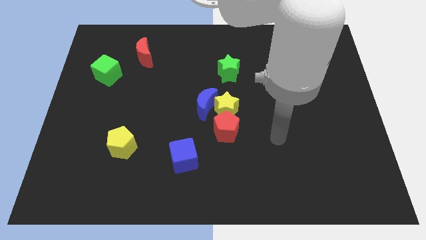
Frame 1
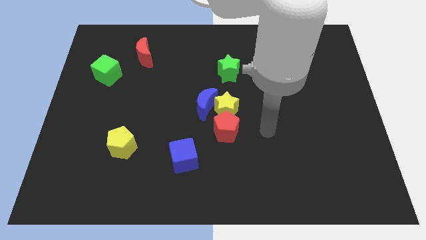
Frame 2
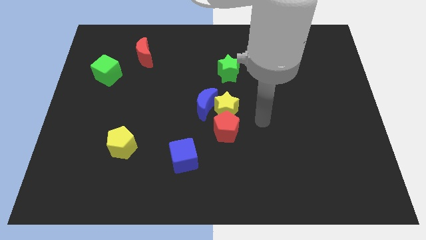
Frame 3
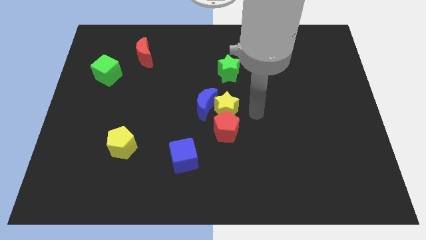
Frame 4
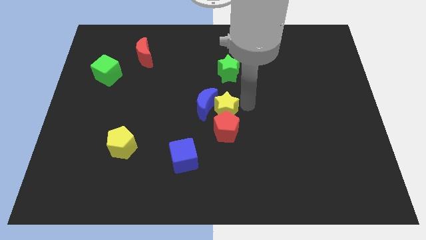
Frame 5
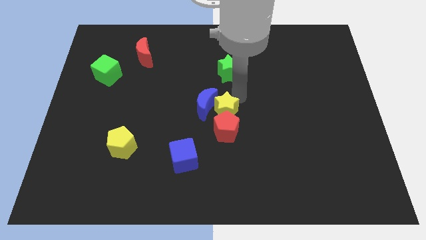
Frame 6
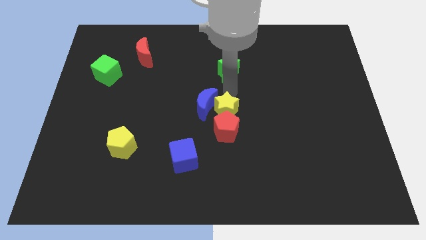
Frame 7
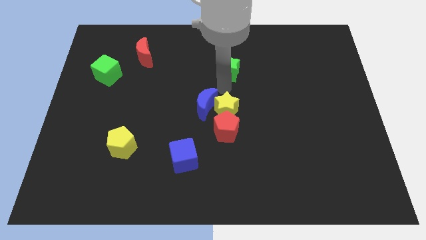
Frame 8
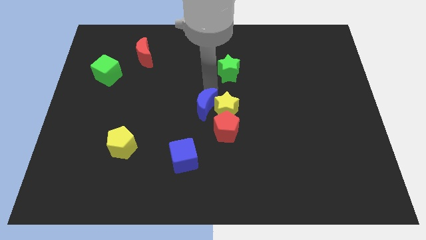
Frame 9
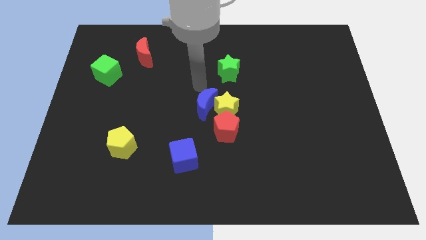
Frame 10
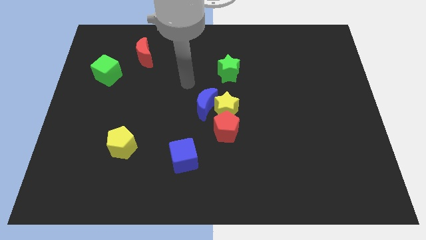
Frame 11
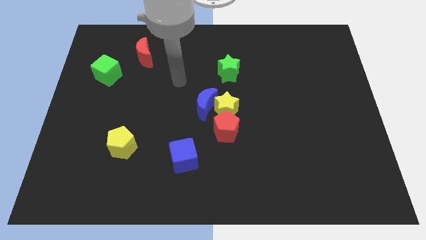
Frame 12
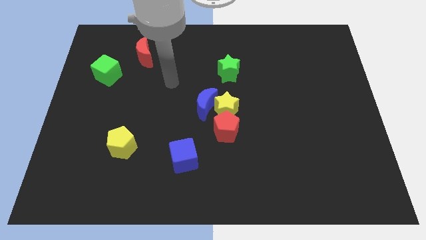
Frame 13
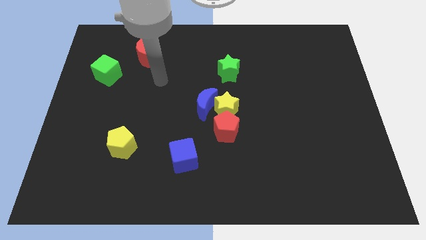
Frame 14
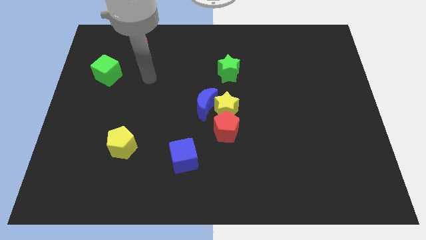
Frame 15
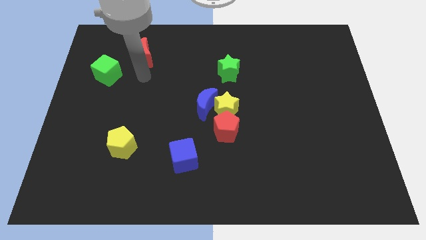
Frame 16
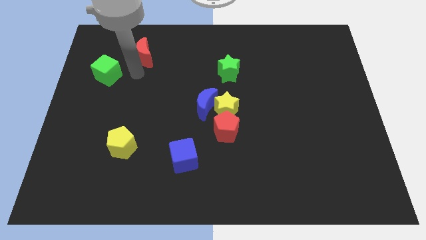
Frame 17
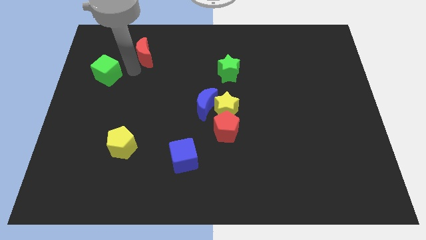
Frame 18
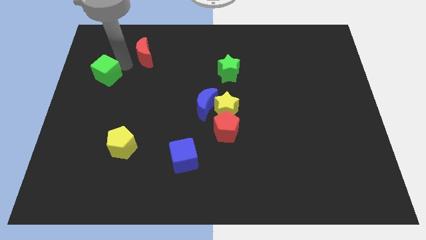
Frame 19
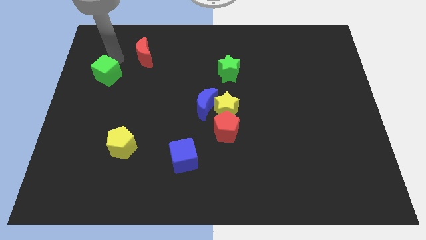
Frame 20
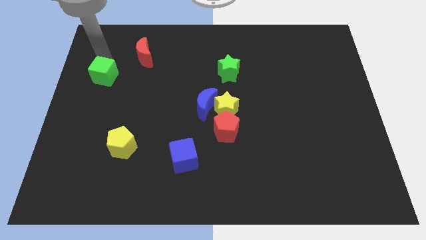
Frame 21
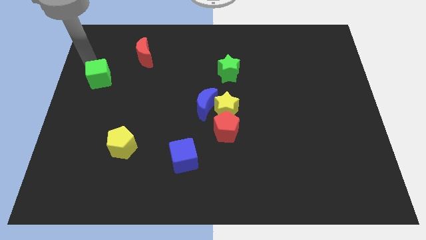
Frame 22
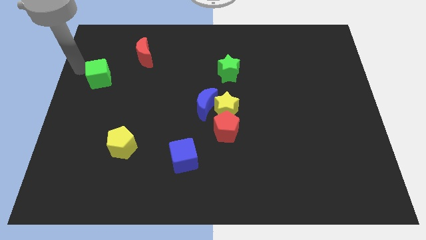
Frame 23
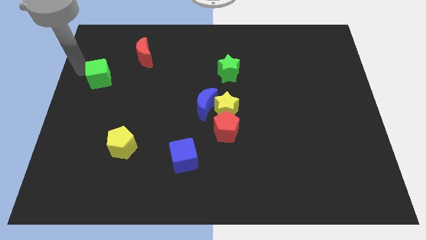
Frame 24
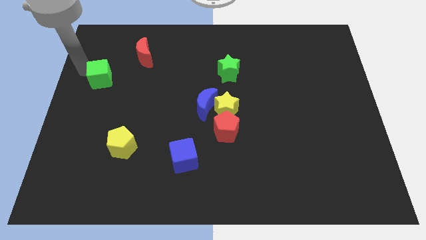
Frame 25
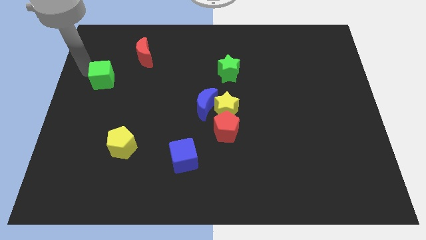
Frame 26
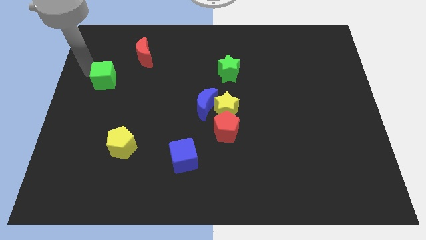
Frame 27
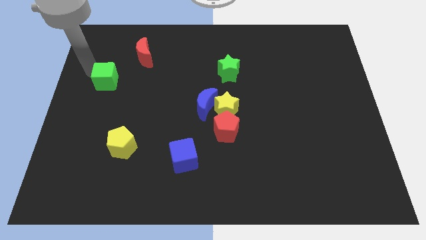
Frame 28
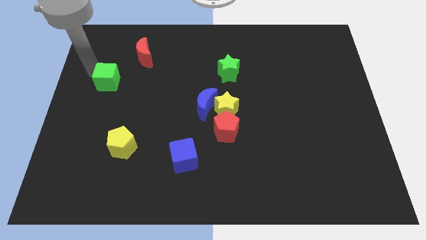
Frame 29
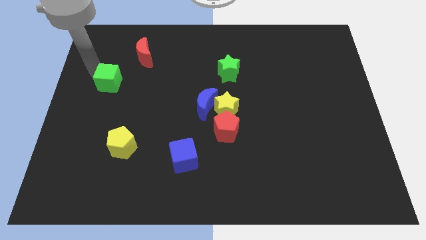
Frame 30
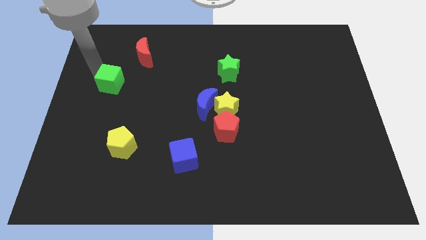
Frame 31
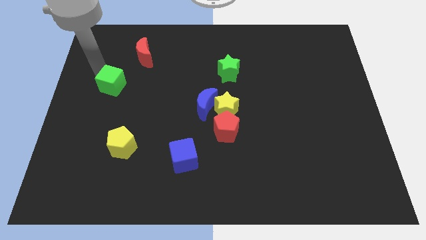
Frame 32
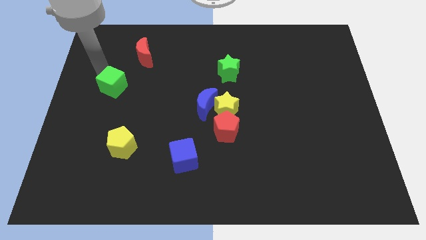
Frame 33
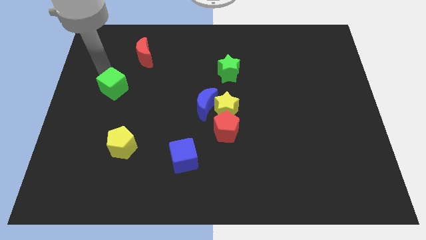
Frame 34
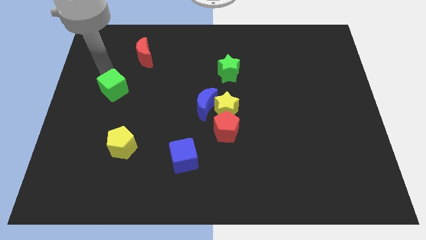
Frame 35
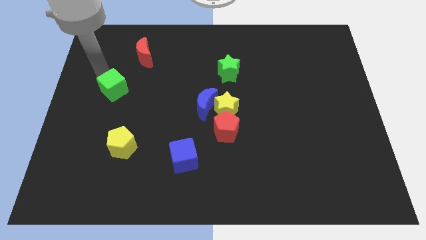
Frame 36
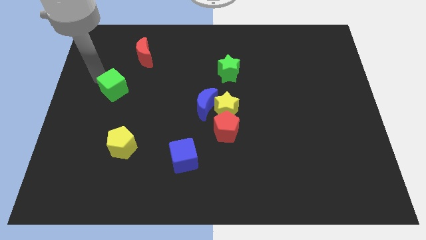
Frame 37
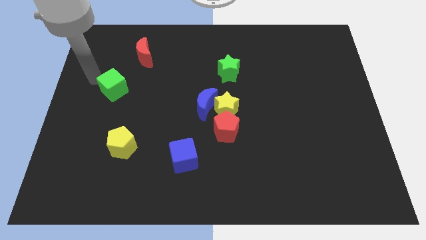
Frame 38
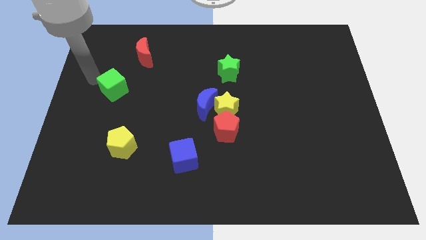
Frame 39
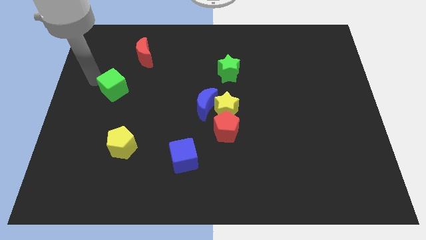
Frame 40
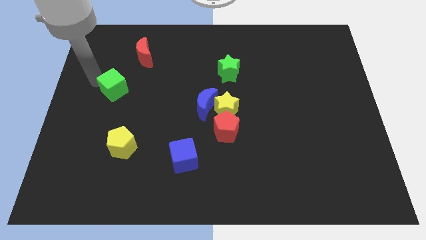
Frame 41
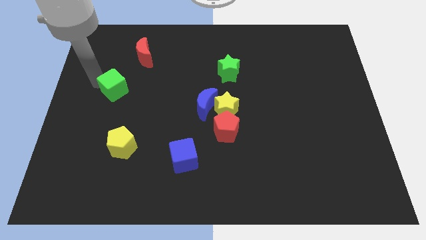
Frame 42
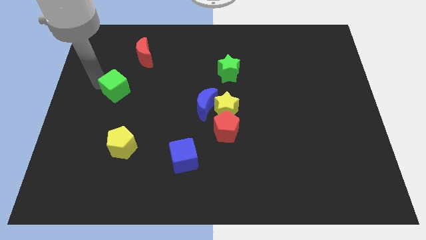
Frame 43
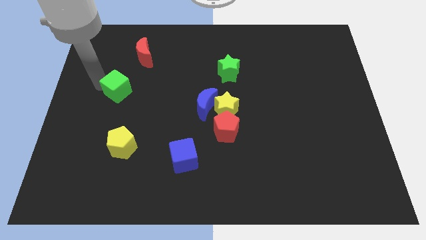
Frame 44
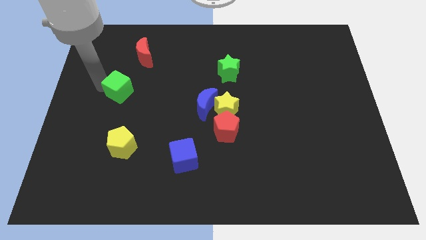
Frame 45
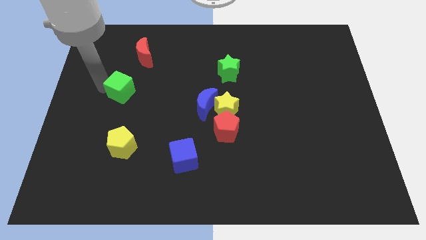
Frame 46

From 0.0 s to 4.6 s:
move the green cube diagonally down and right a little

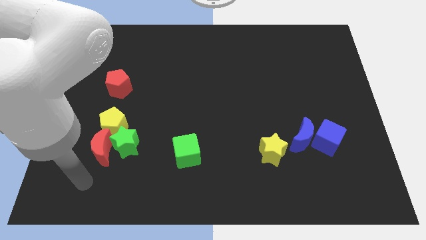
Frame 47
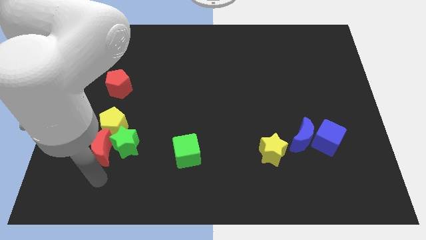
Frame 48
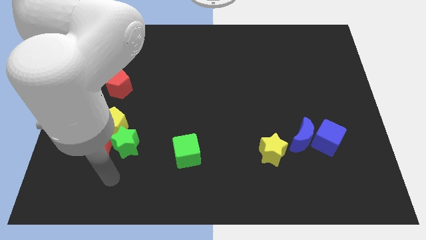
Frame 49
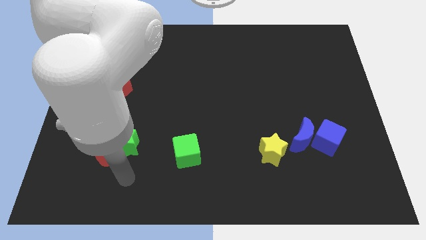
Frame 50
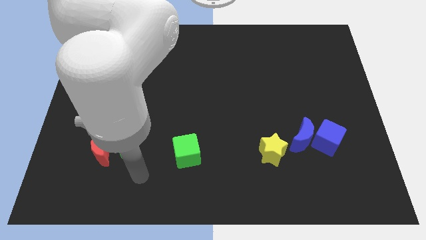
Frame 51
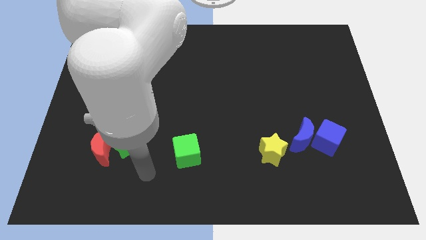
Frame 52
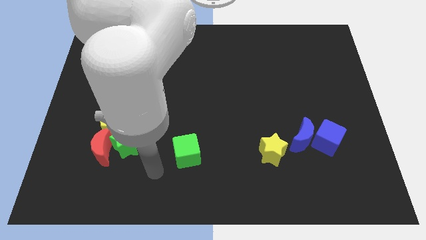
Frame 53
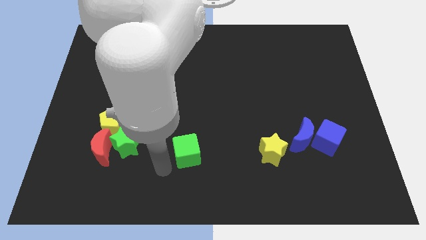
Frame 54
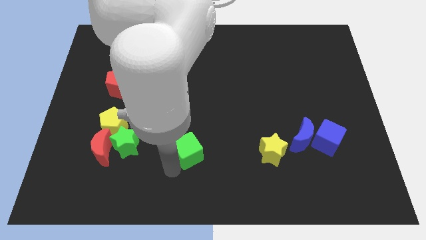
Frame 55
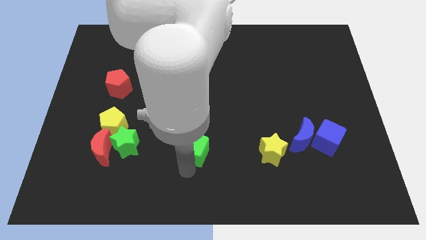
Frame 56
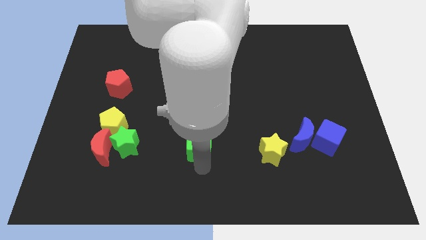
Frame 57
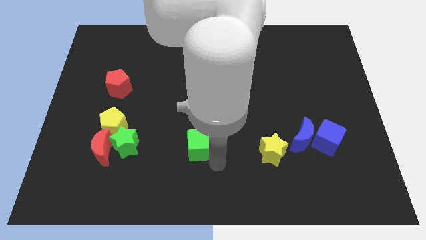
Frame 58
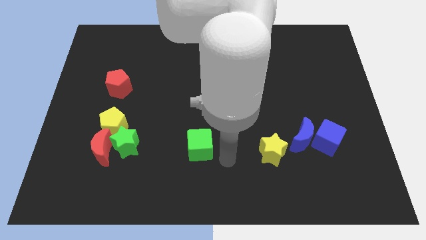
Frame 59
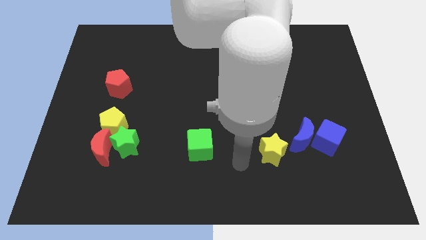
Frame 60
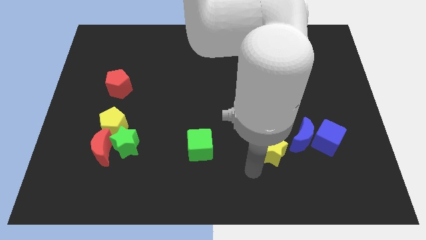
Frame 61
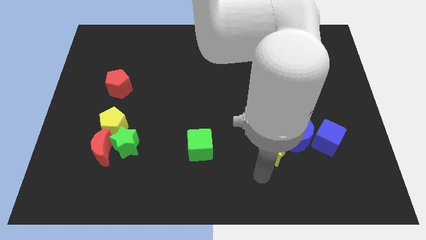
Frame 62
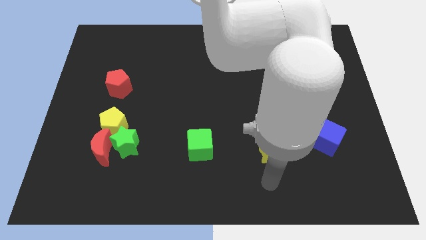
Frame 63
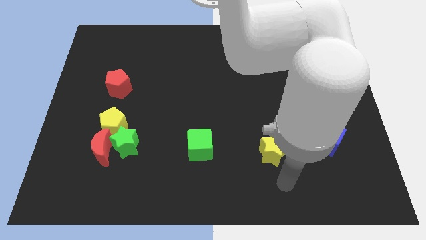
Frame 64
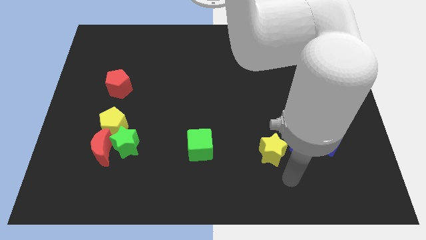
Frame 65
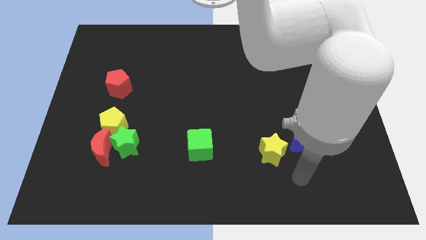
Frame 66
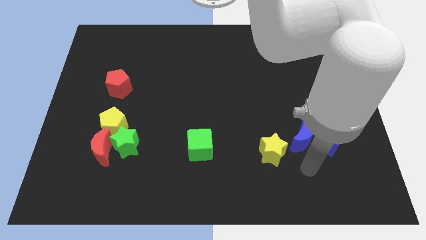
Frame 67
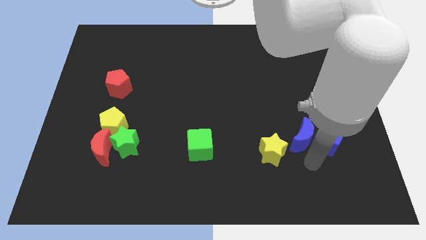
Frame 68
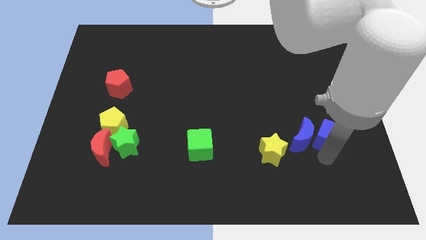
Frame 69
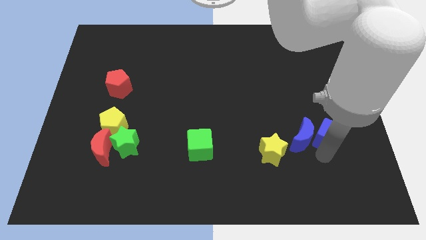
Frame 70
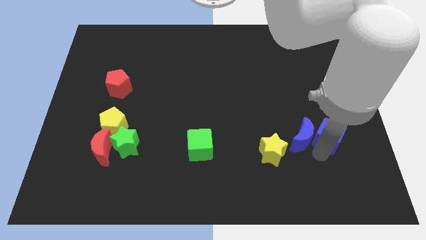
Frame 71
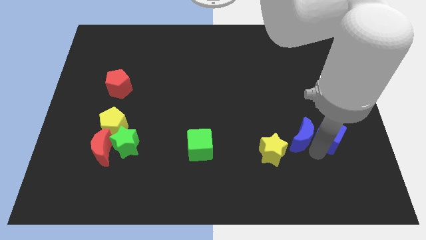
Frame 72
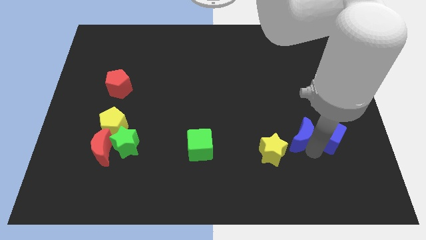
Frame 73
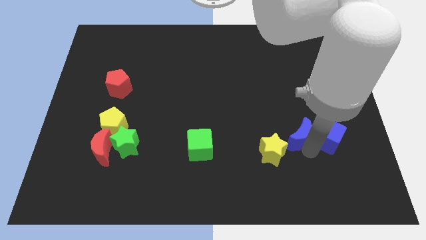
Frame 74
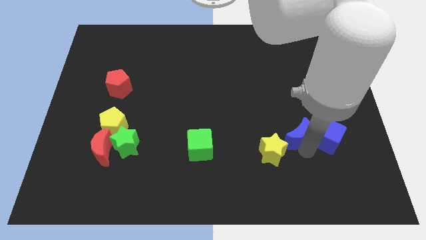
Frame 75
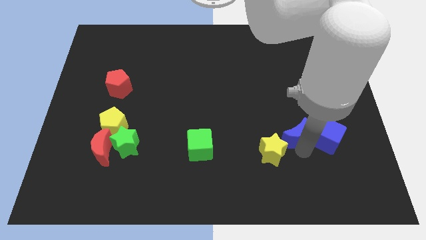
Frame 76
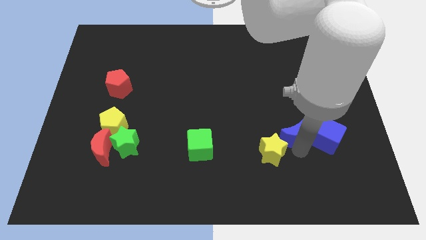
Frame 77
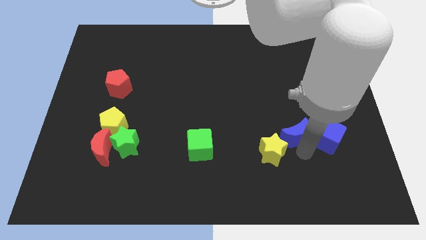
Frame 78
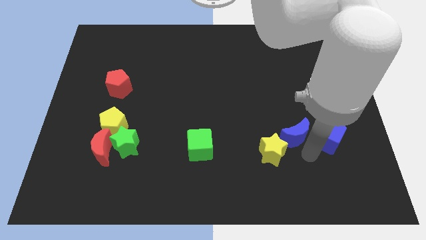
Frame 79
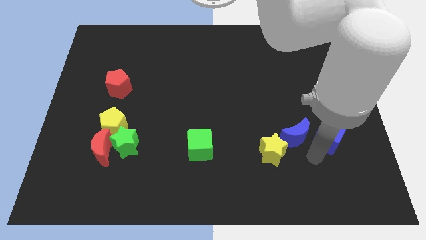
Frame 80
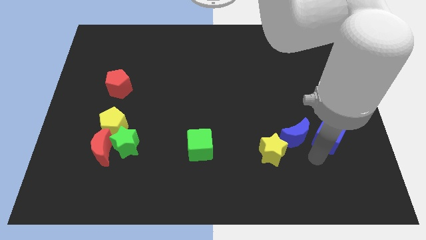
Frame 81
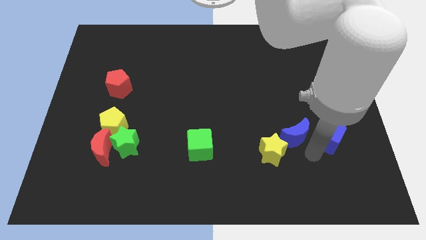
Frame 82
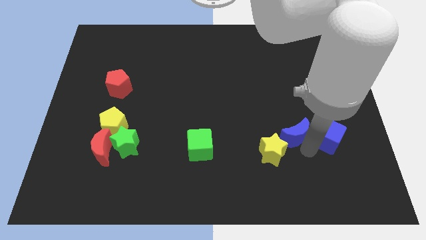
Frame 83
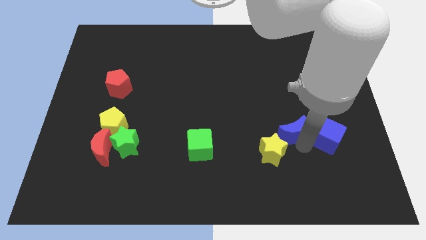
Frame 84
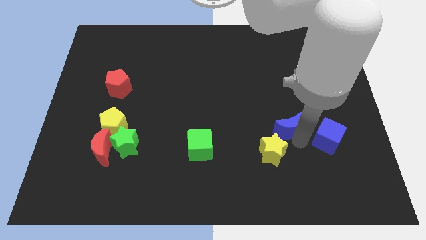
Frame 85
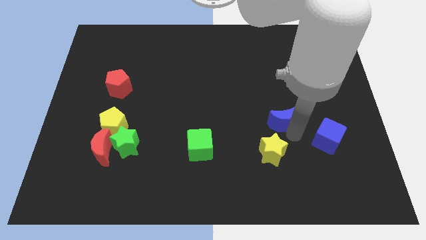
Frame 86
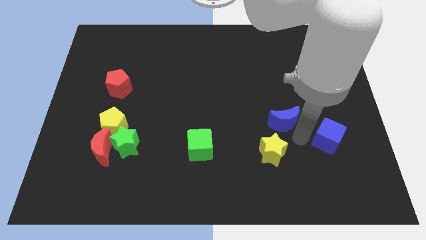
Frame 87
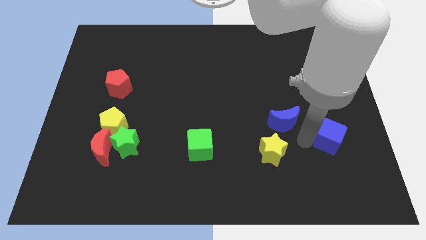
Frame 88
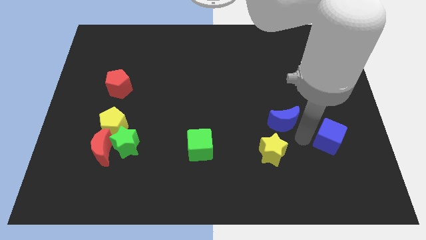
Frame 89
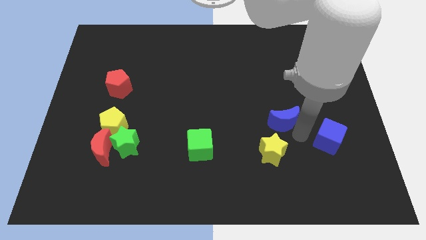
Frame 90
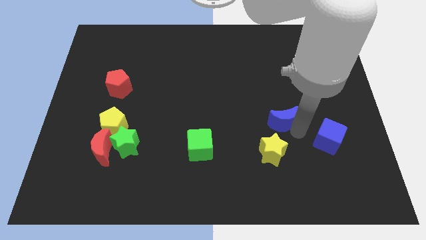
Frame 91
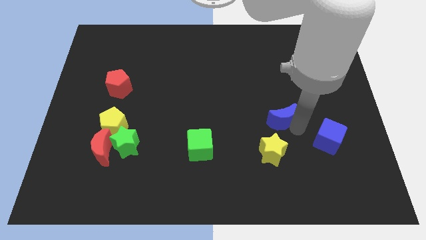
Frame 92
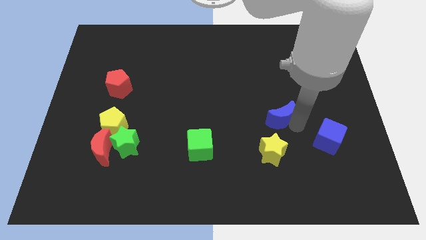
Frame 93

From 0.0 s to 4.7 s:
move the blue moon slightly upwards and then to the left
